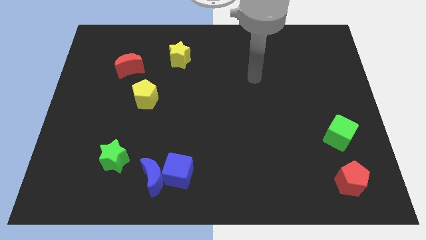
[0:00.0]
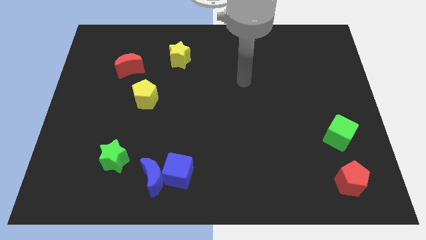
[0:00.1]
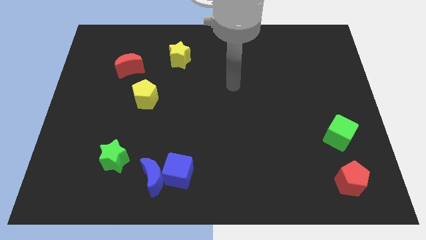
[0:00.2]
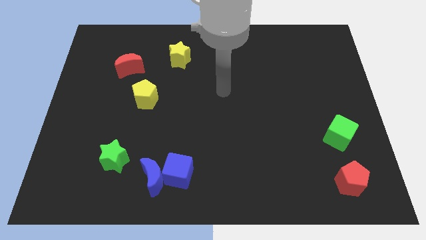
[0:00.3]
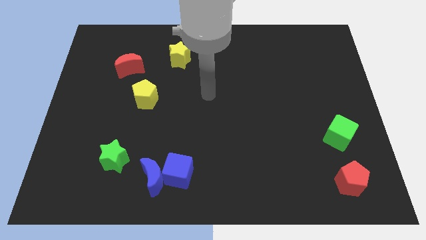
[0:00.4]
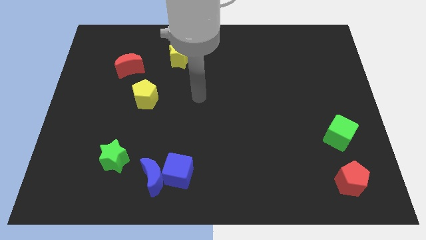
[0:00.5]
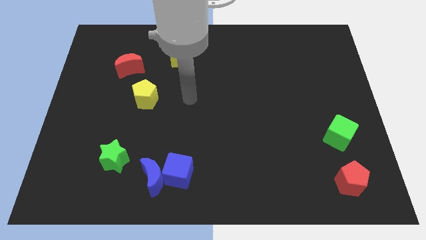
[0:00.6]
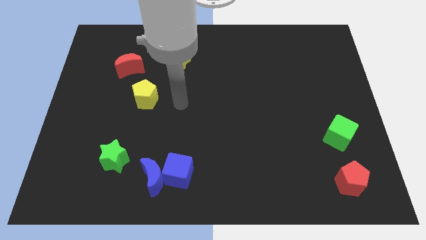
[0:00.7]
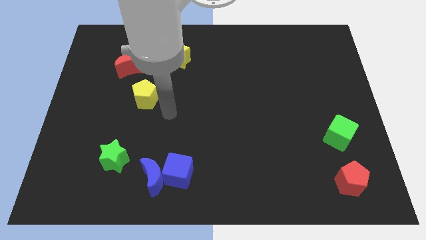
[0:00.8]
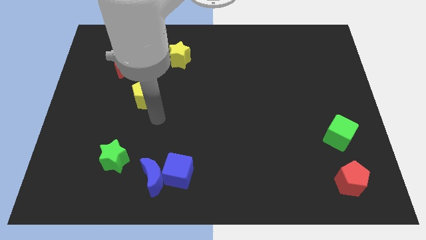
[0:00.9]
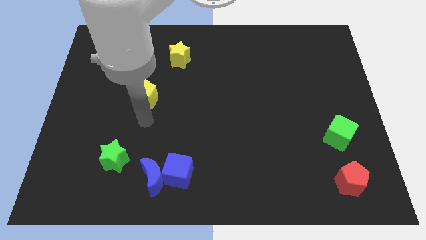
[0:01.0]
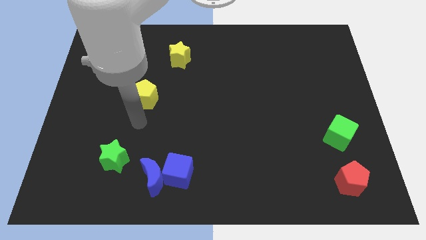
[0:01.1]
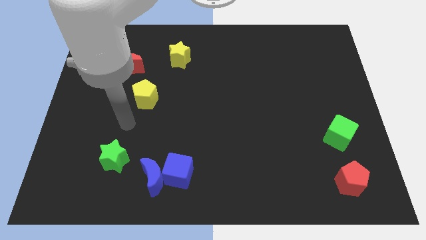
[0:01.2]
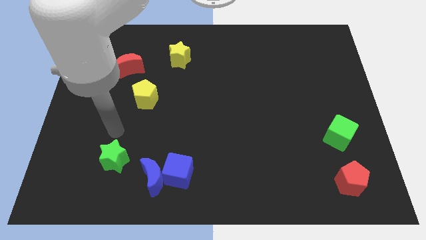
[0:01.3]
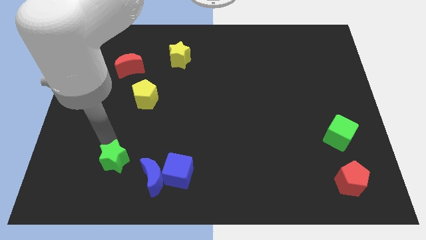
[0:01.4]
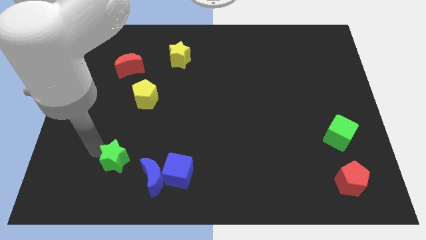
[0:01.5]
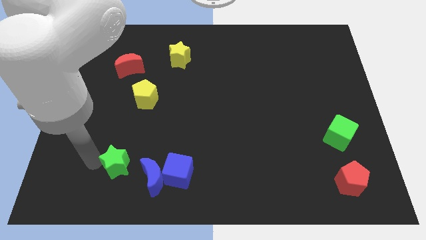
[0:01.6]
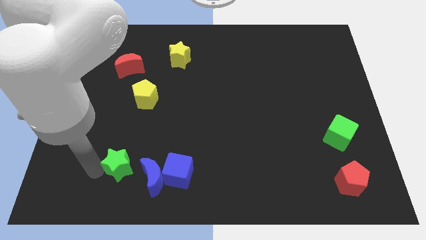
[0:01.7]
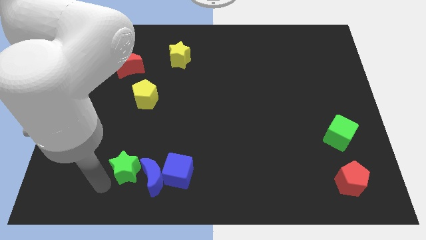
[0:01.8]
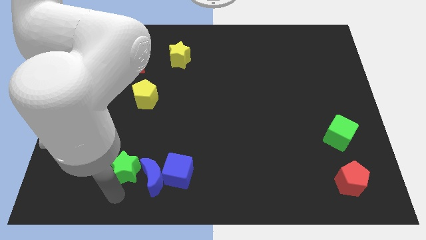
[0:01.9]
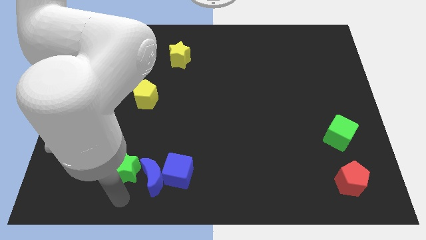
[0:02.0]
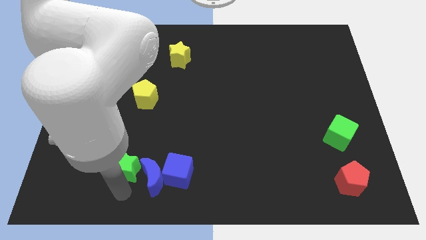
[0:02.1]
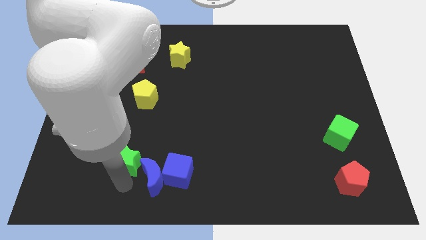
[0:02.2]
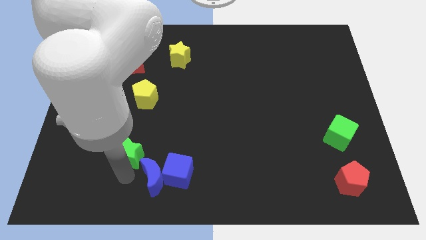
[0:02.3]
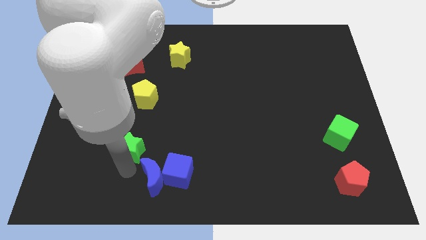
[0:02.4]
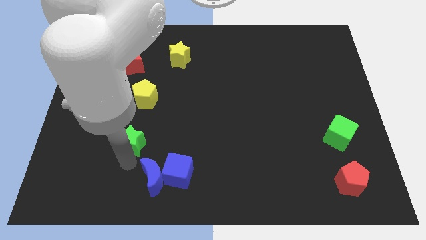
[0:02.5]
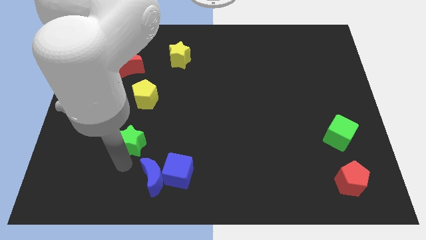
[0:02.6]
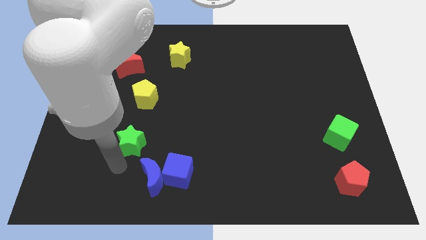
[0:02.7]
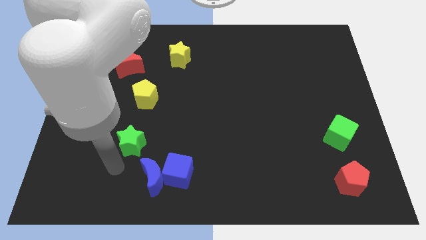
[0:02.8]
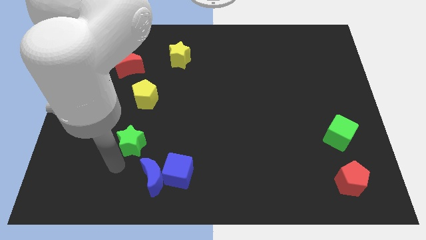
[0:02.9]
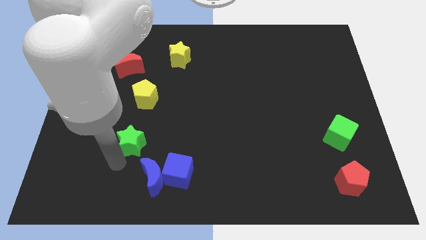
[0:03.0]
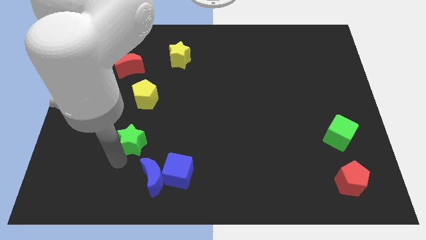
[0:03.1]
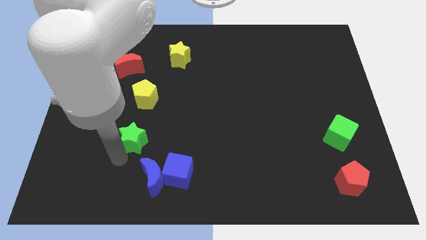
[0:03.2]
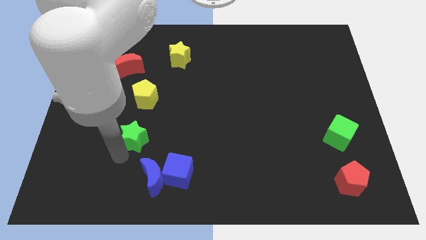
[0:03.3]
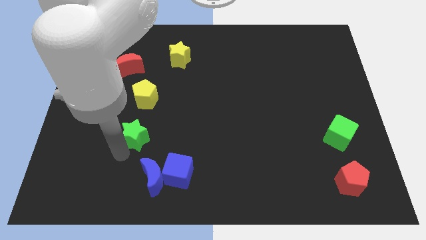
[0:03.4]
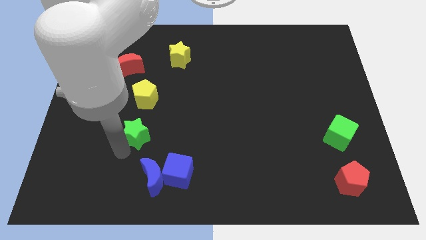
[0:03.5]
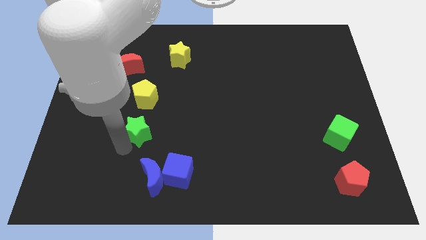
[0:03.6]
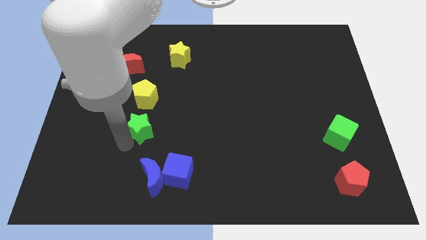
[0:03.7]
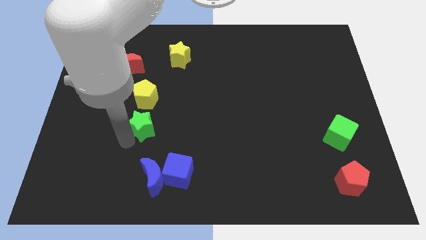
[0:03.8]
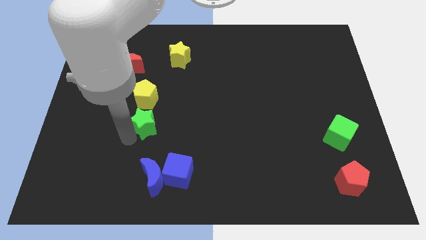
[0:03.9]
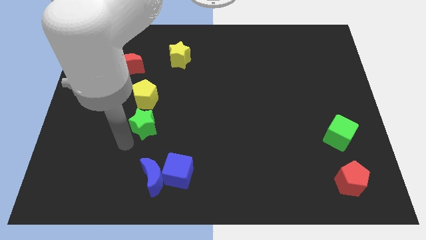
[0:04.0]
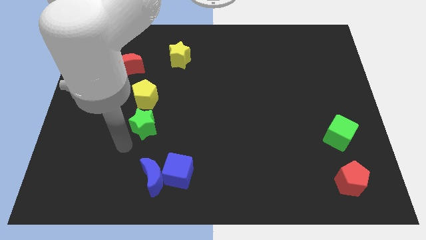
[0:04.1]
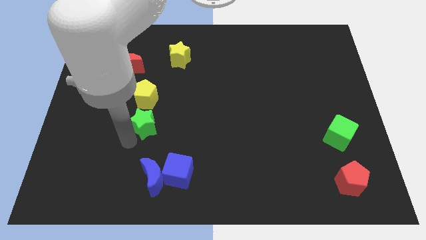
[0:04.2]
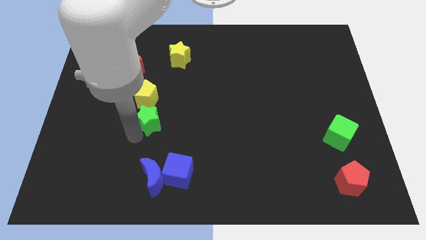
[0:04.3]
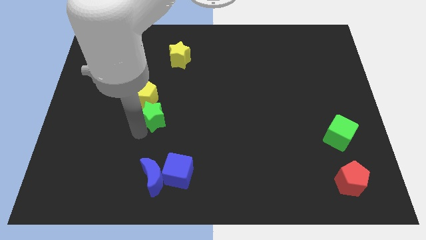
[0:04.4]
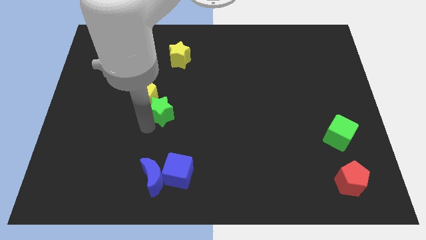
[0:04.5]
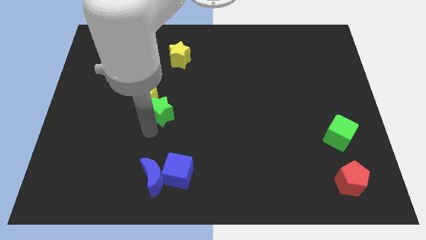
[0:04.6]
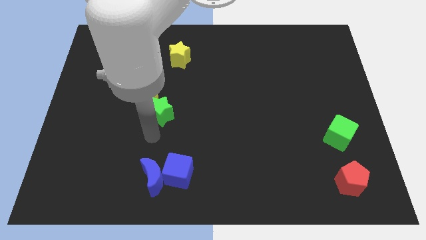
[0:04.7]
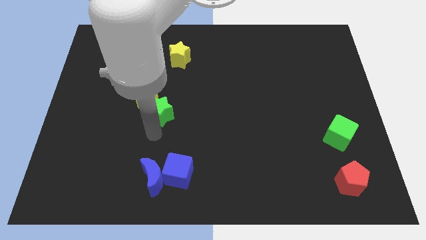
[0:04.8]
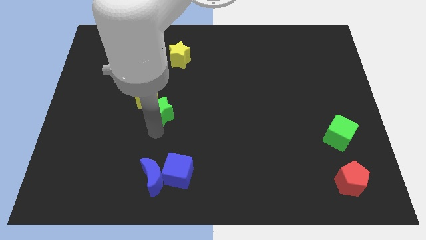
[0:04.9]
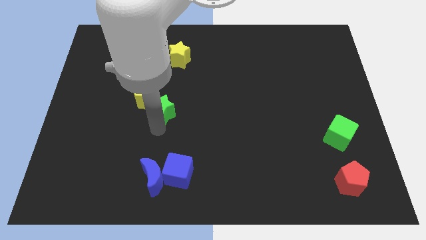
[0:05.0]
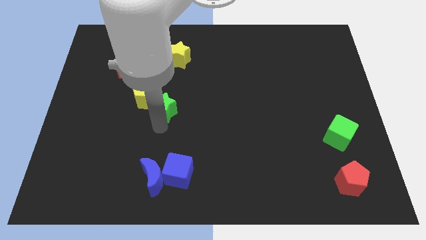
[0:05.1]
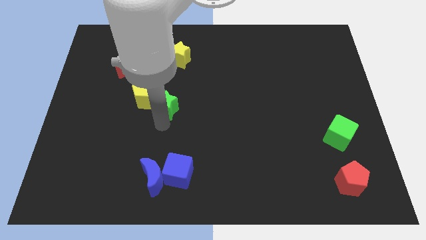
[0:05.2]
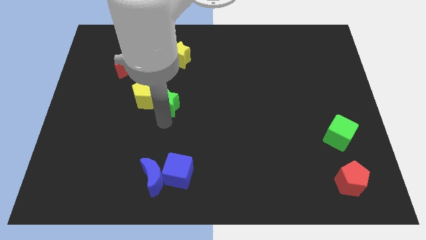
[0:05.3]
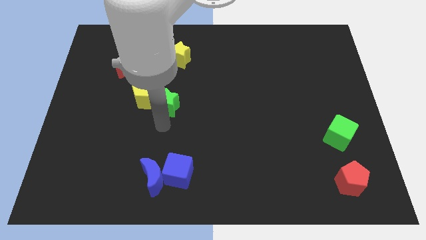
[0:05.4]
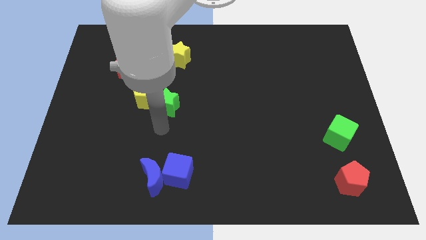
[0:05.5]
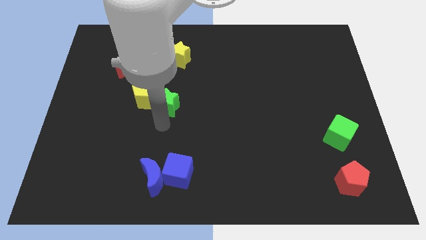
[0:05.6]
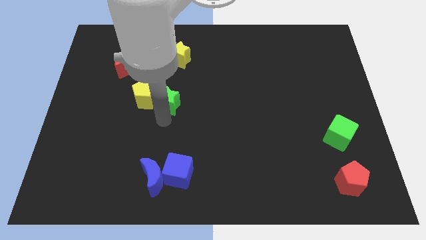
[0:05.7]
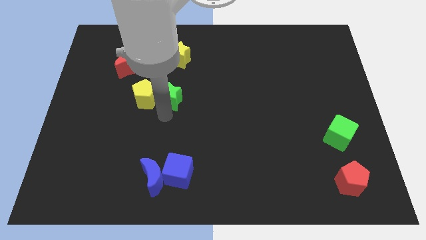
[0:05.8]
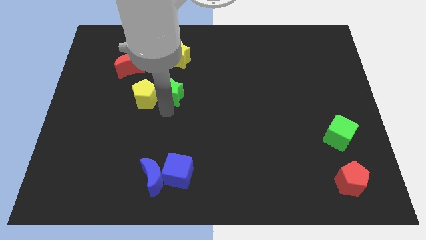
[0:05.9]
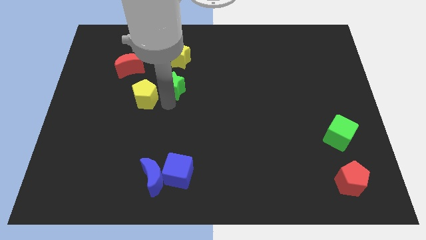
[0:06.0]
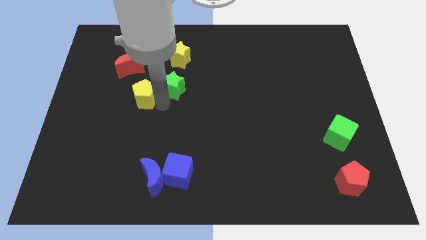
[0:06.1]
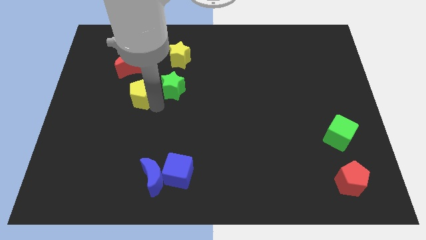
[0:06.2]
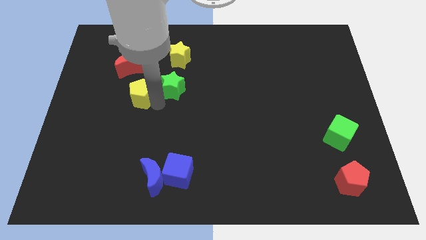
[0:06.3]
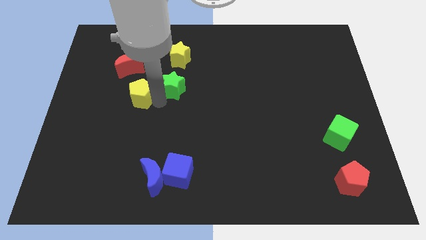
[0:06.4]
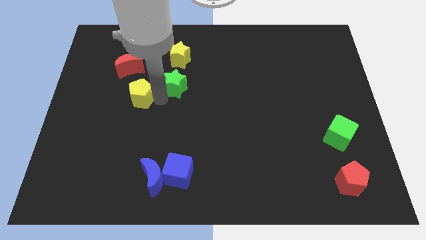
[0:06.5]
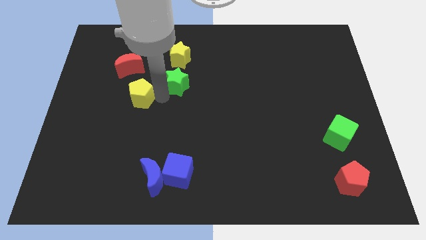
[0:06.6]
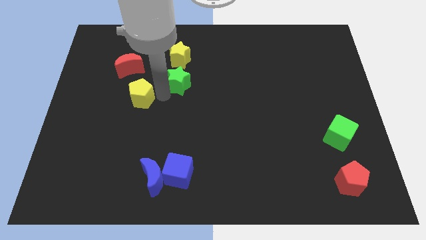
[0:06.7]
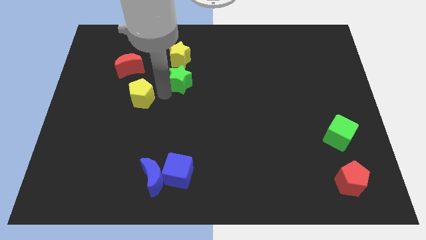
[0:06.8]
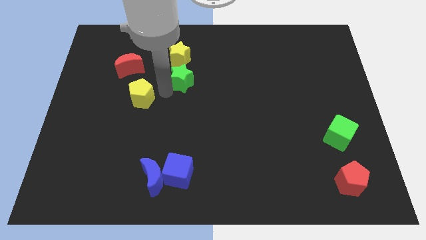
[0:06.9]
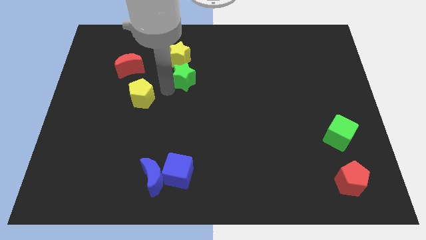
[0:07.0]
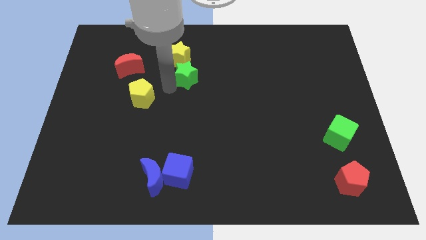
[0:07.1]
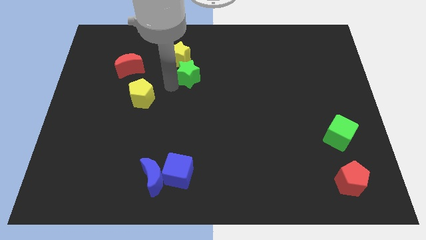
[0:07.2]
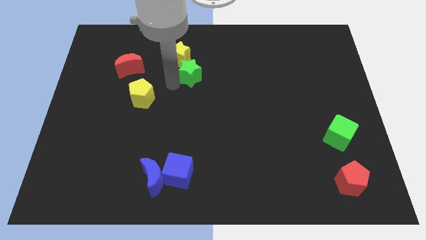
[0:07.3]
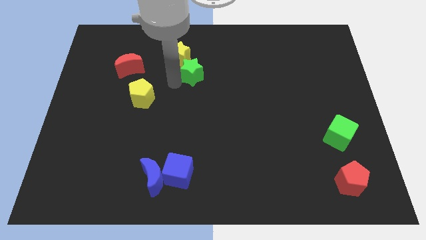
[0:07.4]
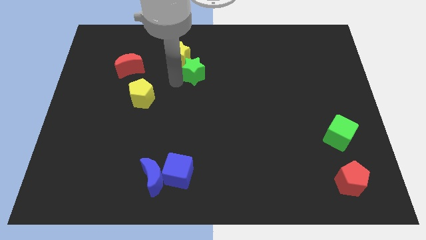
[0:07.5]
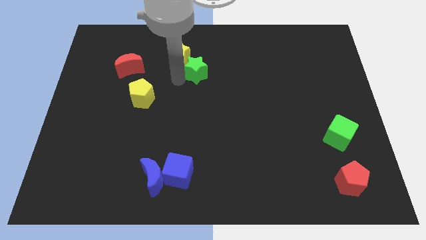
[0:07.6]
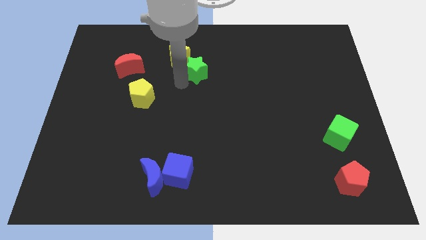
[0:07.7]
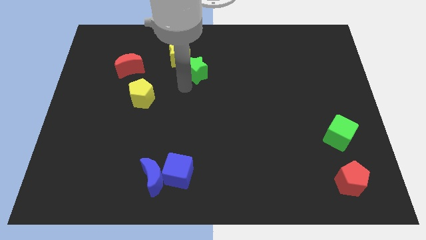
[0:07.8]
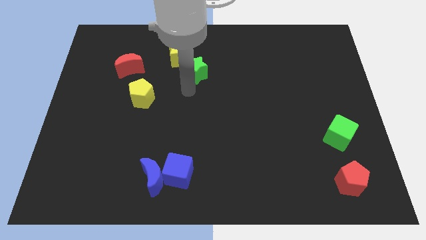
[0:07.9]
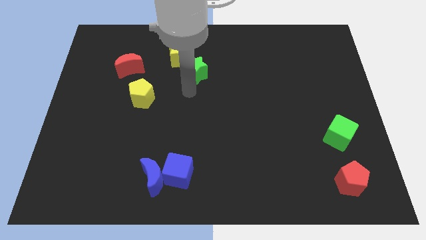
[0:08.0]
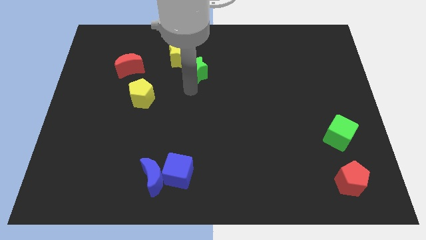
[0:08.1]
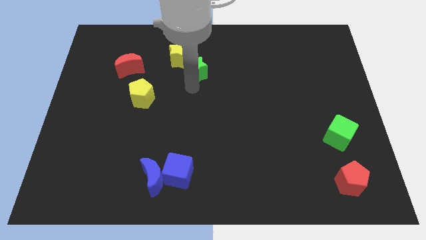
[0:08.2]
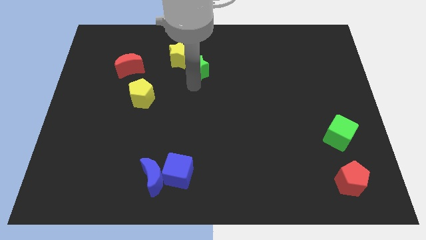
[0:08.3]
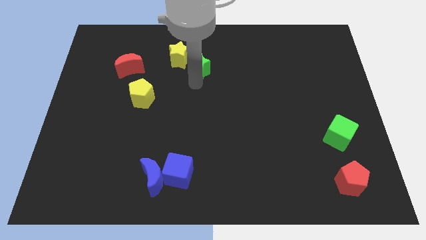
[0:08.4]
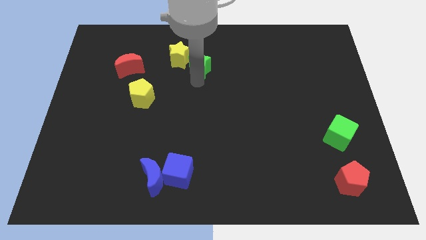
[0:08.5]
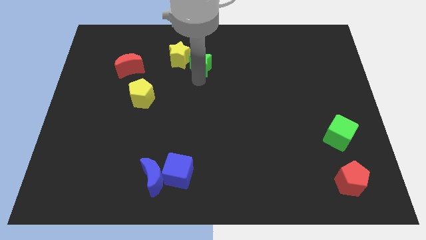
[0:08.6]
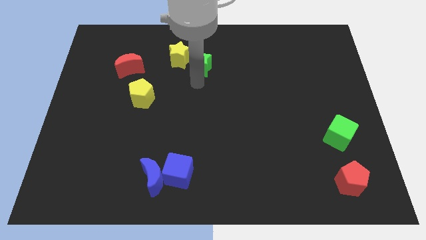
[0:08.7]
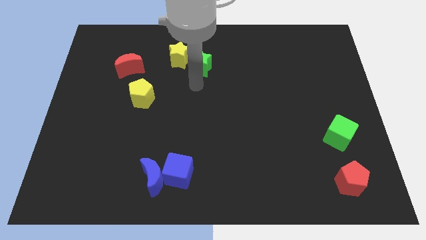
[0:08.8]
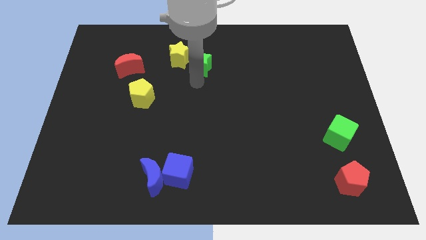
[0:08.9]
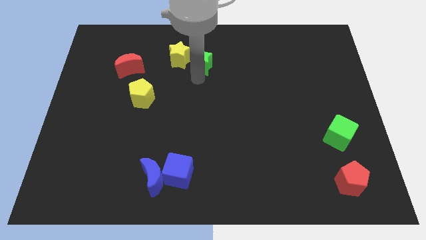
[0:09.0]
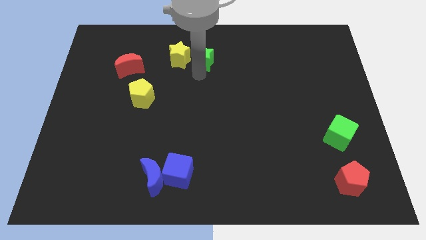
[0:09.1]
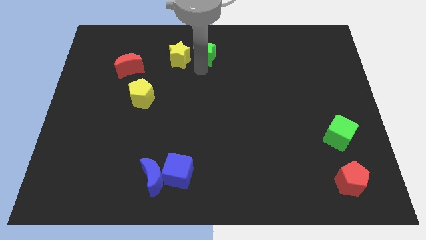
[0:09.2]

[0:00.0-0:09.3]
move the green star to the top
